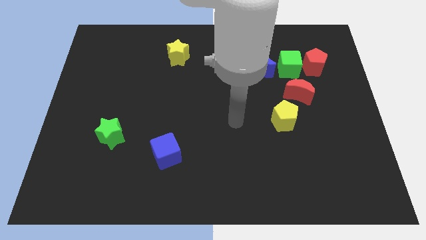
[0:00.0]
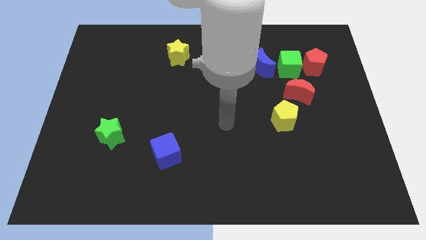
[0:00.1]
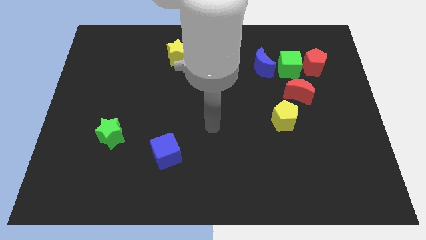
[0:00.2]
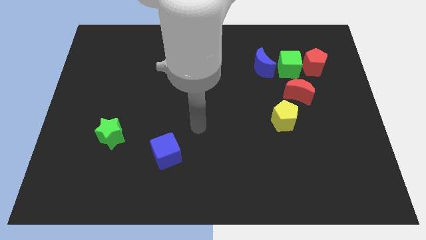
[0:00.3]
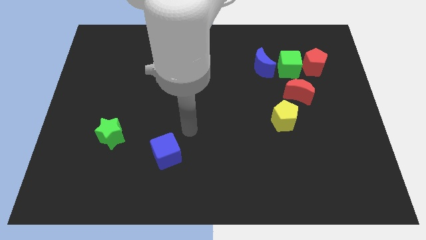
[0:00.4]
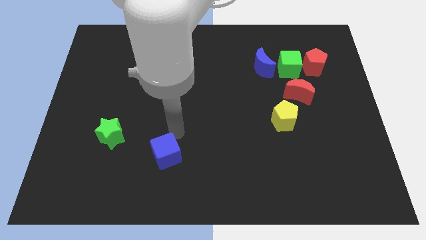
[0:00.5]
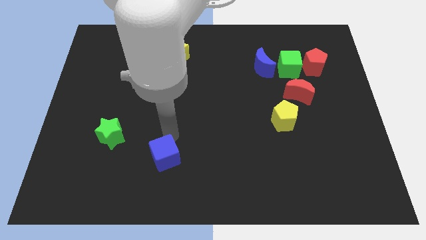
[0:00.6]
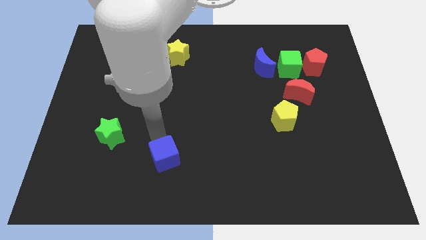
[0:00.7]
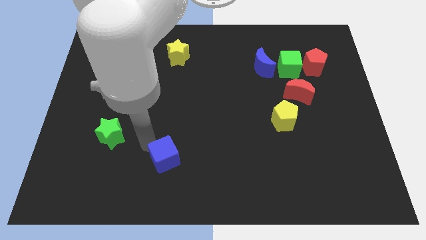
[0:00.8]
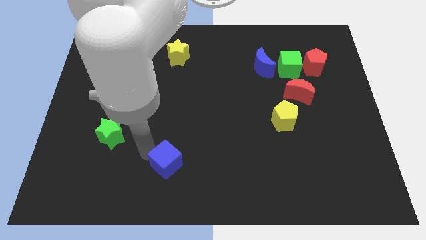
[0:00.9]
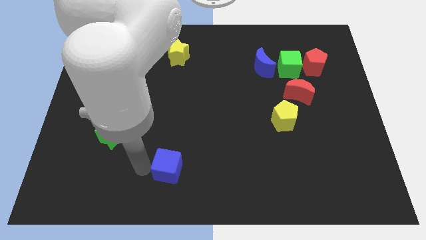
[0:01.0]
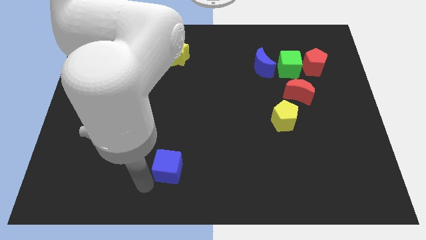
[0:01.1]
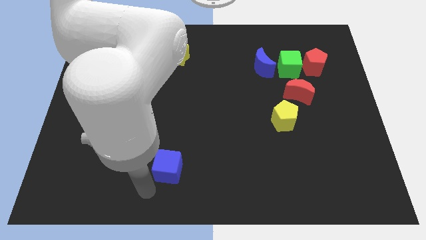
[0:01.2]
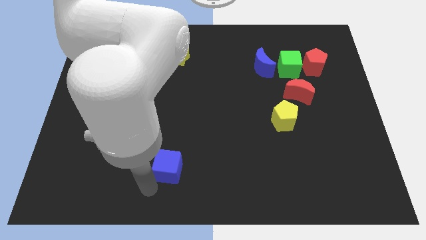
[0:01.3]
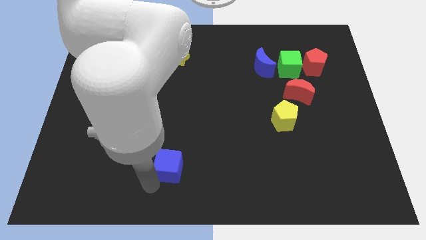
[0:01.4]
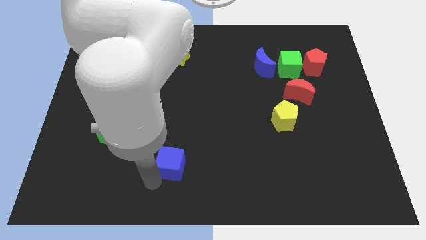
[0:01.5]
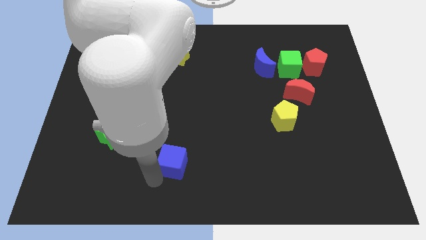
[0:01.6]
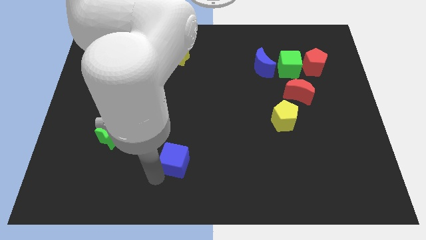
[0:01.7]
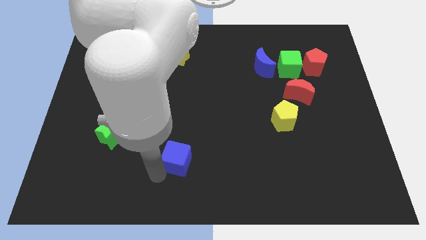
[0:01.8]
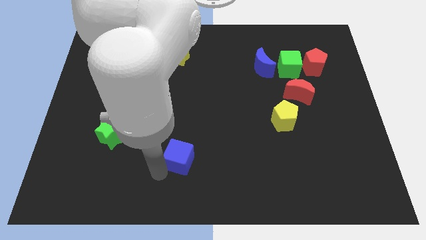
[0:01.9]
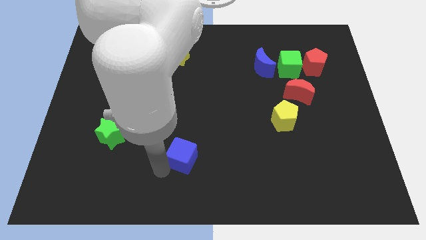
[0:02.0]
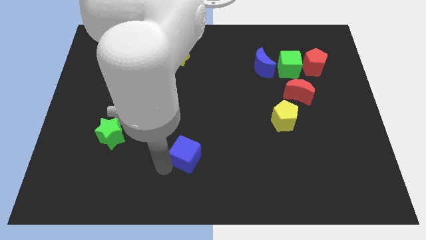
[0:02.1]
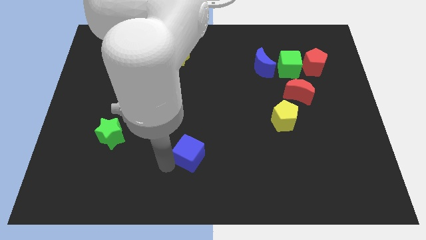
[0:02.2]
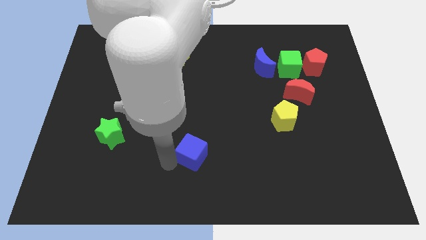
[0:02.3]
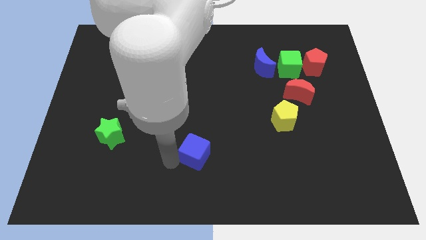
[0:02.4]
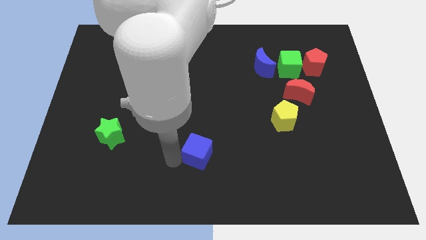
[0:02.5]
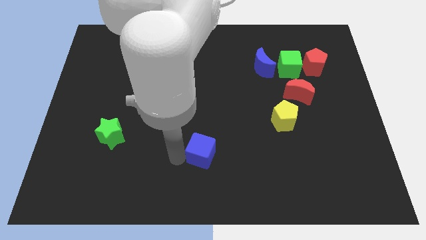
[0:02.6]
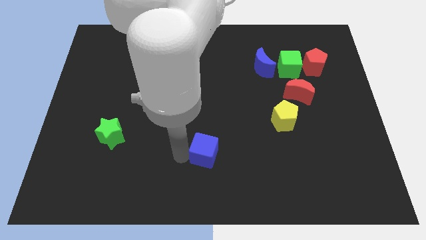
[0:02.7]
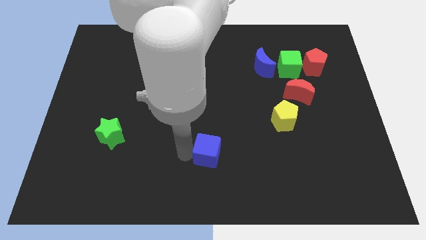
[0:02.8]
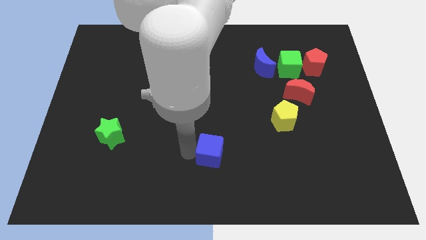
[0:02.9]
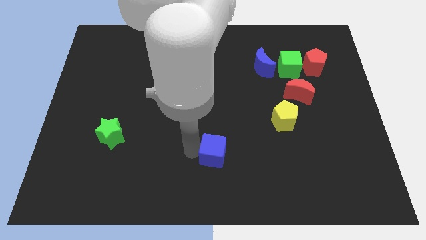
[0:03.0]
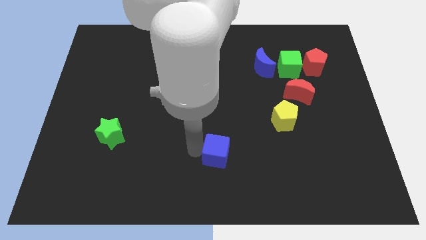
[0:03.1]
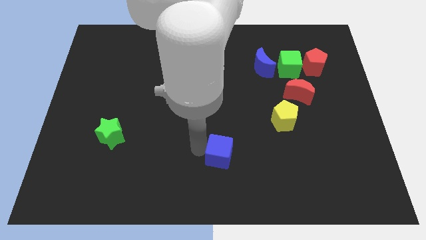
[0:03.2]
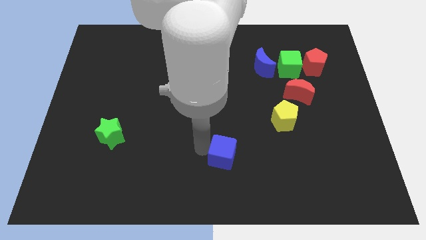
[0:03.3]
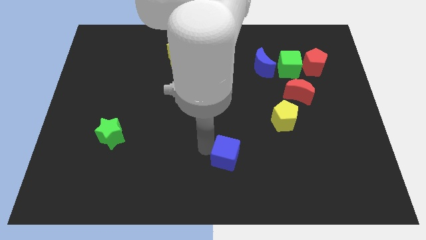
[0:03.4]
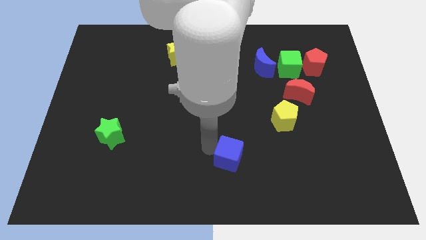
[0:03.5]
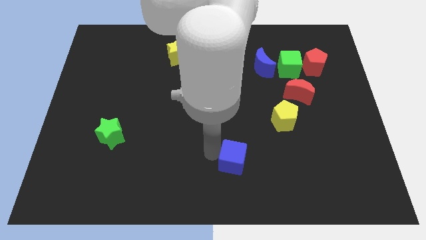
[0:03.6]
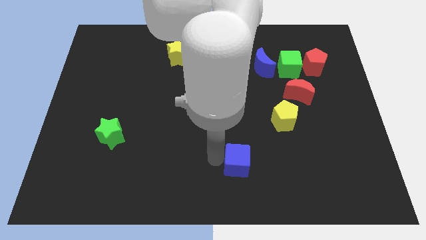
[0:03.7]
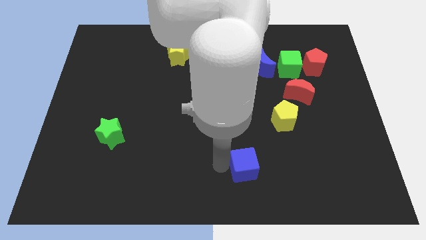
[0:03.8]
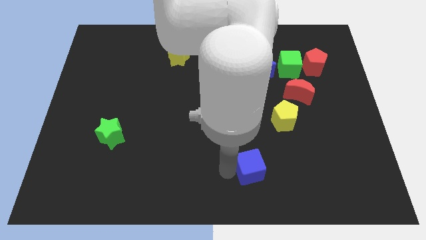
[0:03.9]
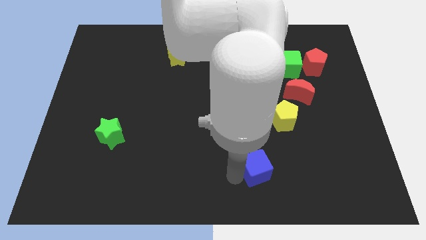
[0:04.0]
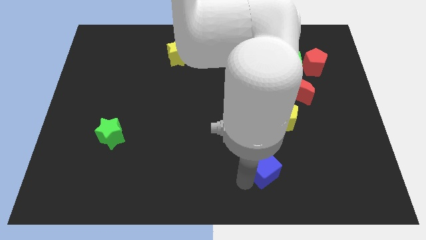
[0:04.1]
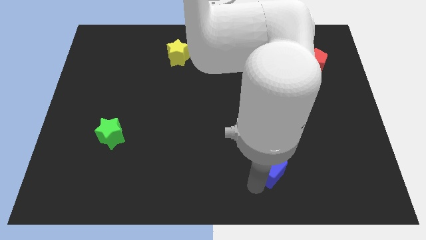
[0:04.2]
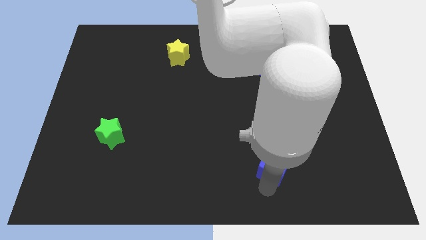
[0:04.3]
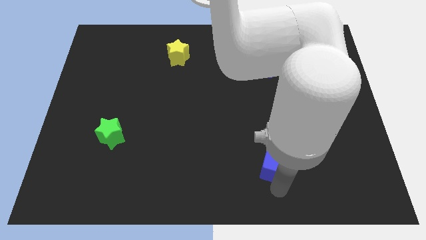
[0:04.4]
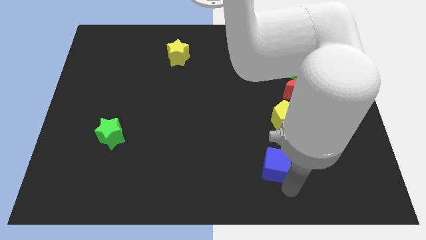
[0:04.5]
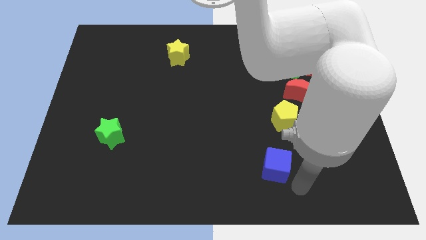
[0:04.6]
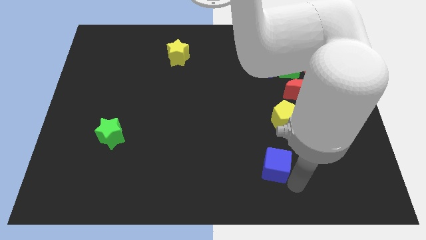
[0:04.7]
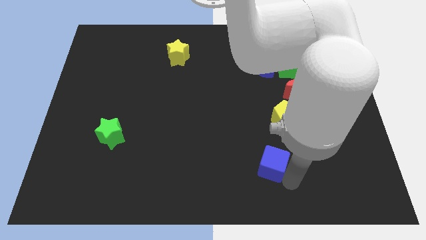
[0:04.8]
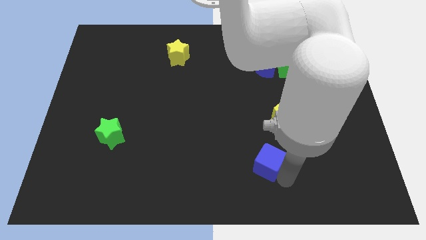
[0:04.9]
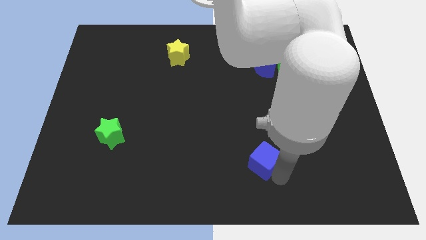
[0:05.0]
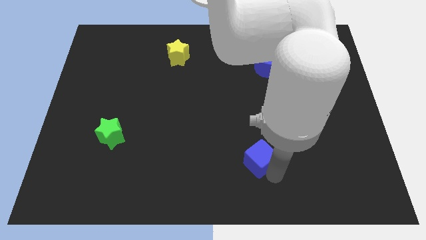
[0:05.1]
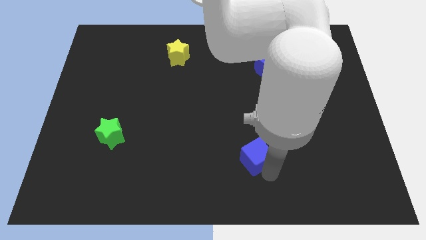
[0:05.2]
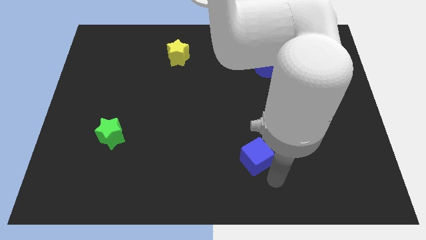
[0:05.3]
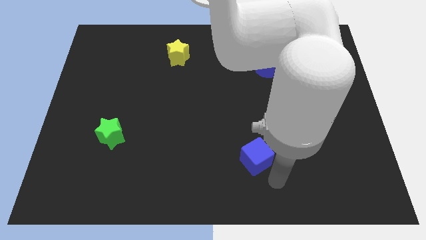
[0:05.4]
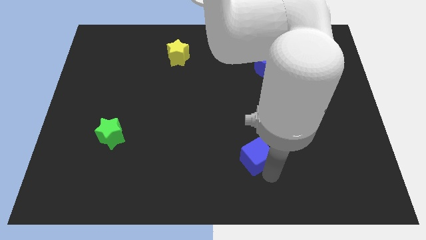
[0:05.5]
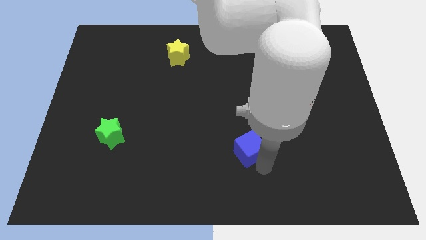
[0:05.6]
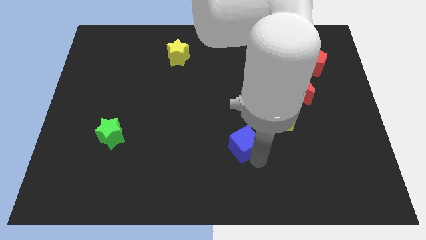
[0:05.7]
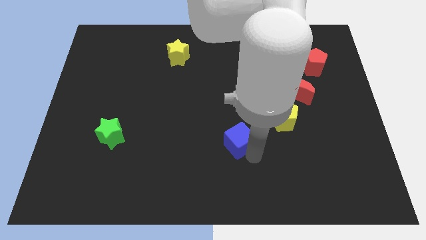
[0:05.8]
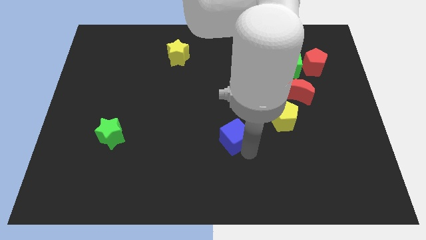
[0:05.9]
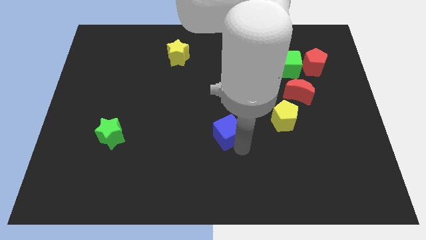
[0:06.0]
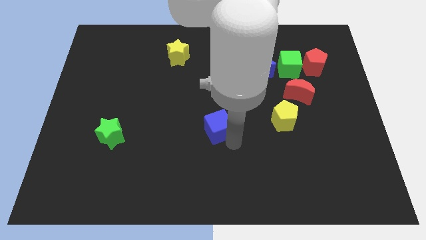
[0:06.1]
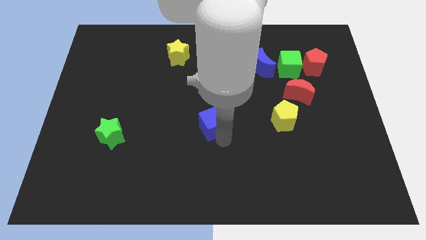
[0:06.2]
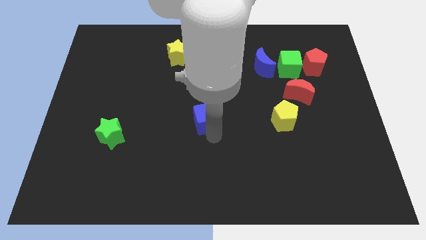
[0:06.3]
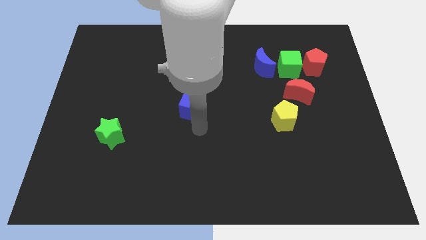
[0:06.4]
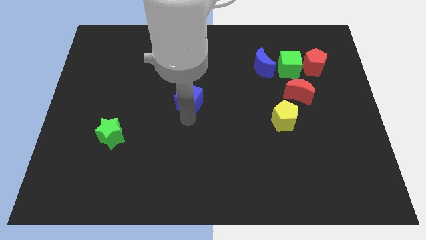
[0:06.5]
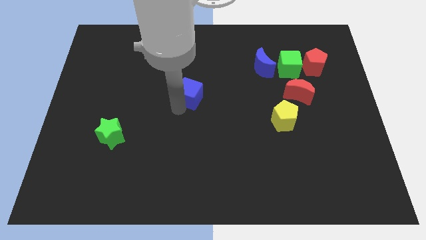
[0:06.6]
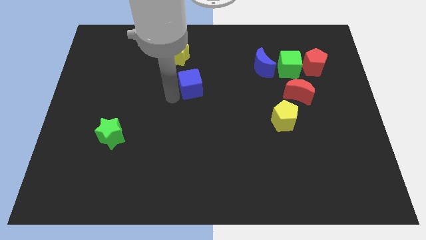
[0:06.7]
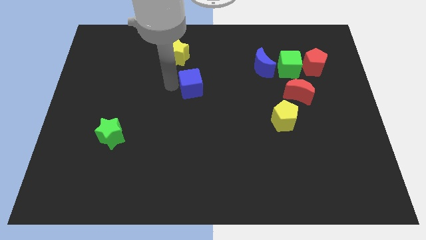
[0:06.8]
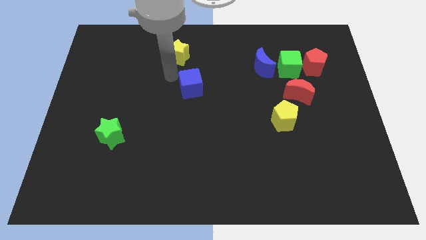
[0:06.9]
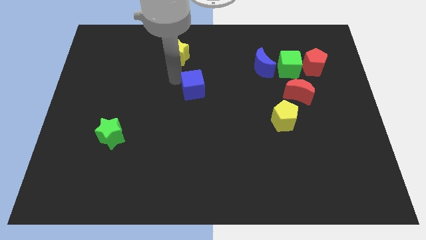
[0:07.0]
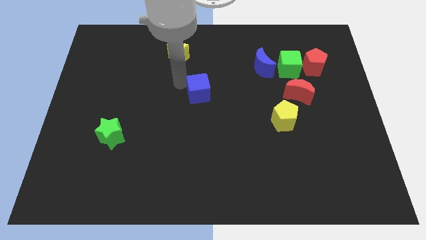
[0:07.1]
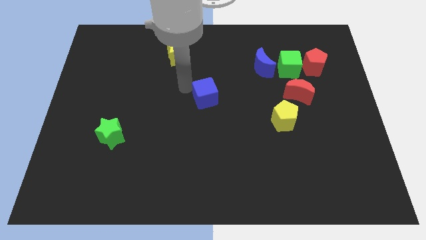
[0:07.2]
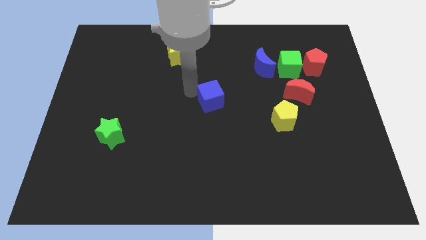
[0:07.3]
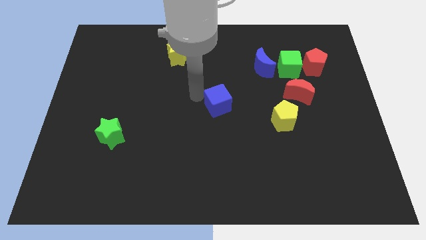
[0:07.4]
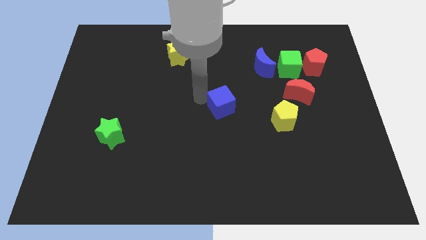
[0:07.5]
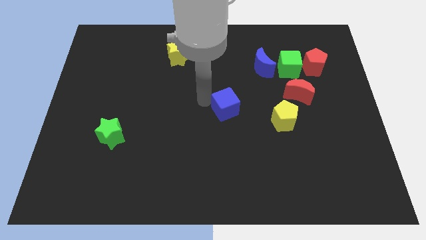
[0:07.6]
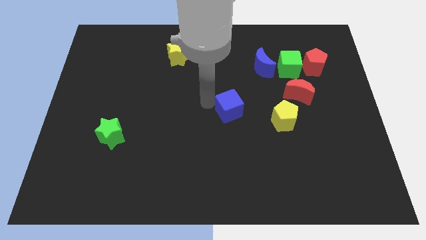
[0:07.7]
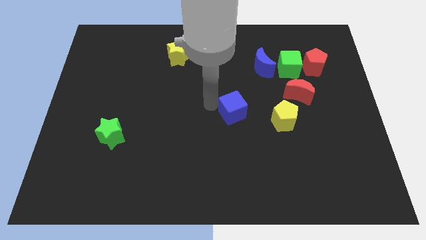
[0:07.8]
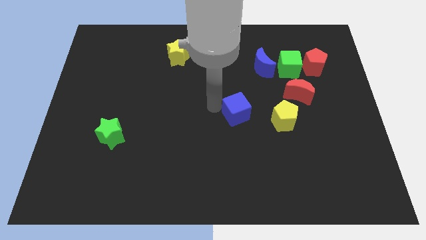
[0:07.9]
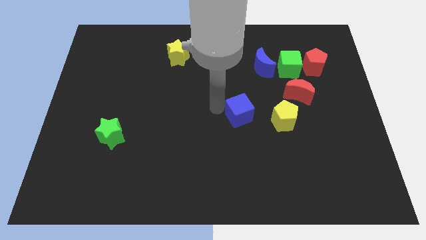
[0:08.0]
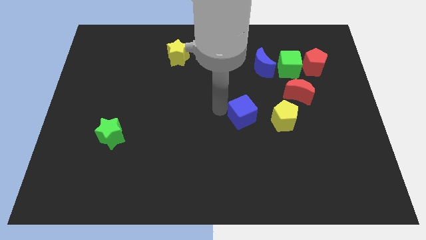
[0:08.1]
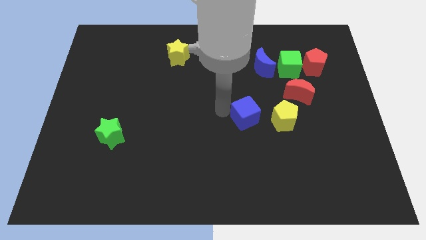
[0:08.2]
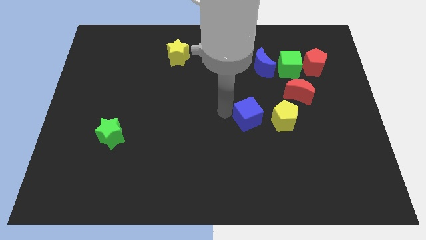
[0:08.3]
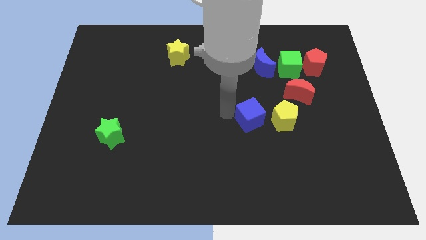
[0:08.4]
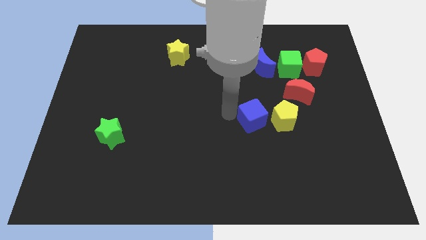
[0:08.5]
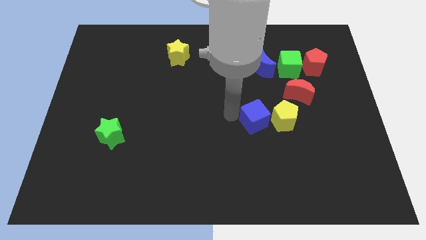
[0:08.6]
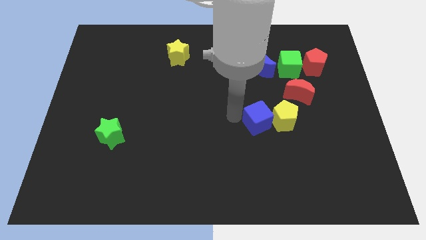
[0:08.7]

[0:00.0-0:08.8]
move the blue cube close to the yellow pentagon
